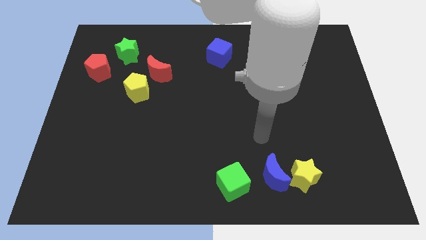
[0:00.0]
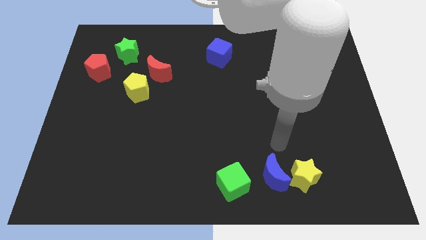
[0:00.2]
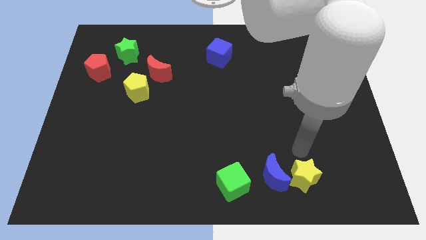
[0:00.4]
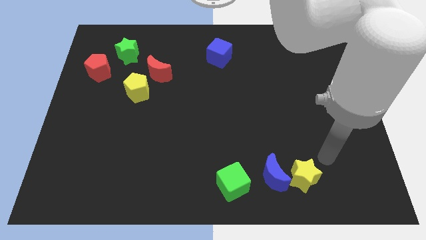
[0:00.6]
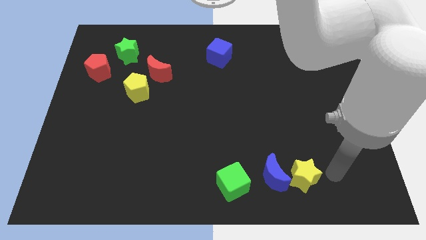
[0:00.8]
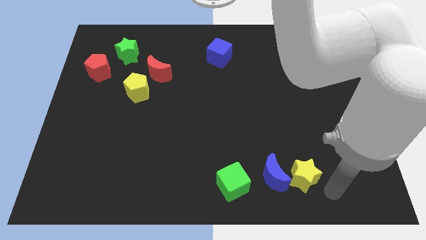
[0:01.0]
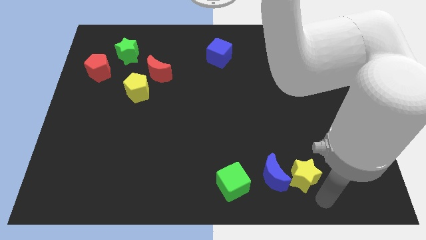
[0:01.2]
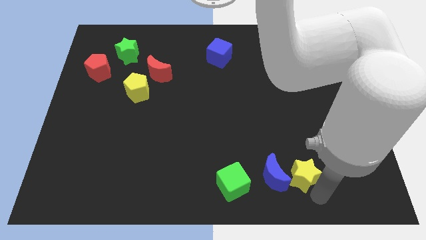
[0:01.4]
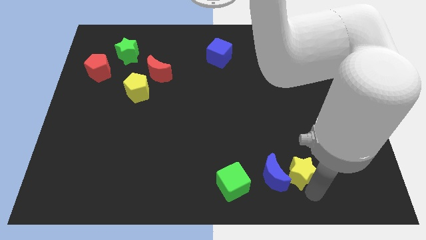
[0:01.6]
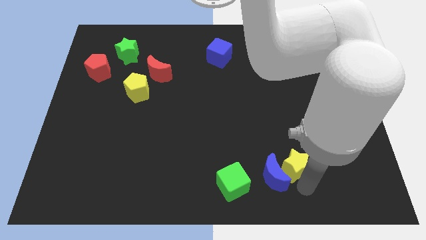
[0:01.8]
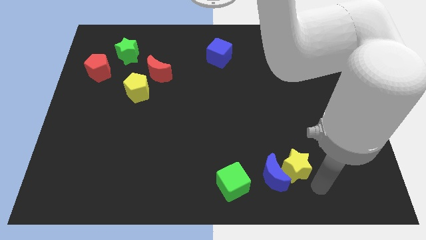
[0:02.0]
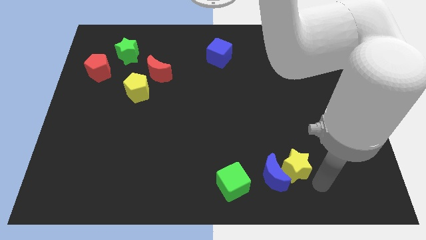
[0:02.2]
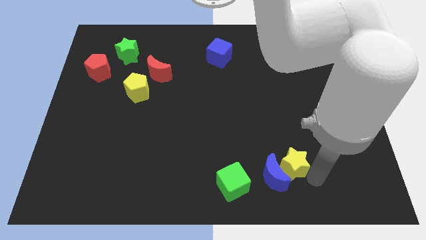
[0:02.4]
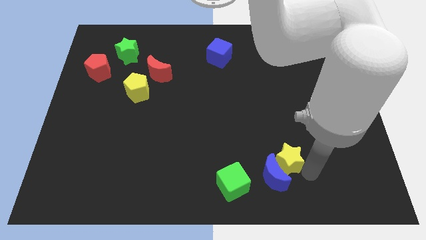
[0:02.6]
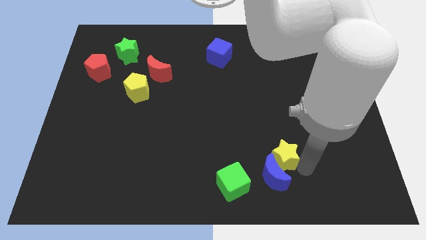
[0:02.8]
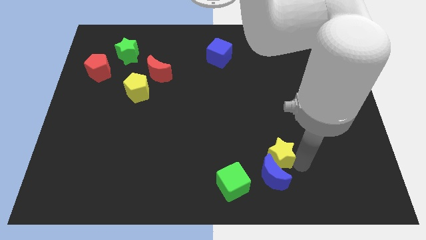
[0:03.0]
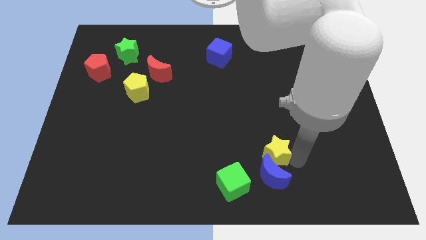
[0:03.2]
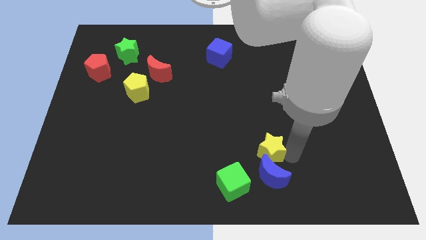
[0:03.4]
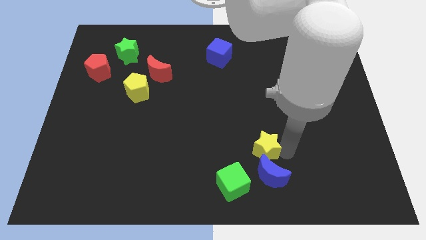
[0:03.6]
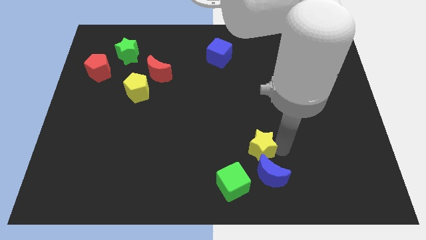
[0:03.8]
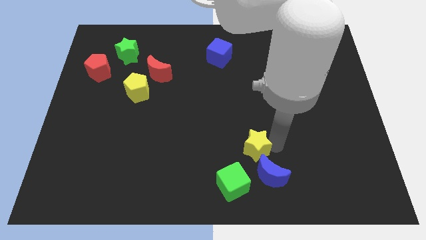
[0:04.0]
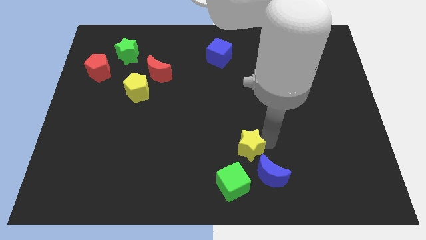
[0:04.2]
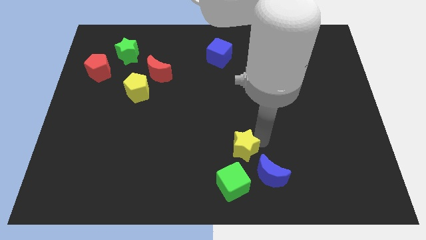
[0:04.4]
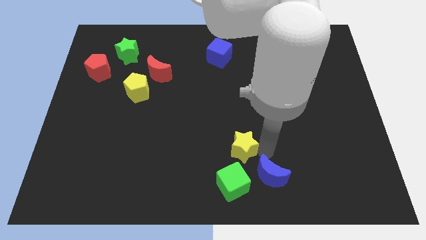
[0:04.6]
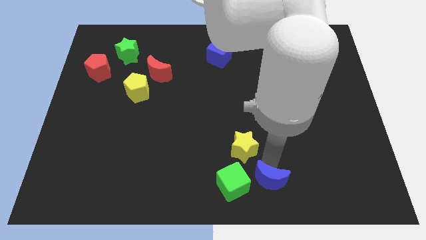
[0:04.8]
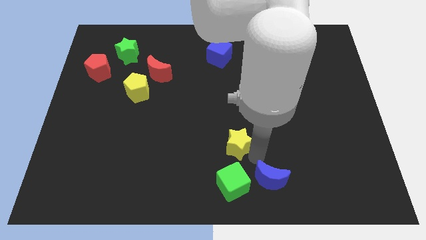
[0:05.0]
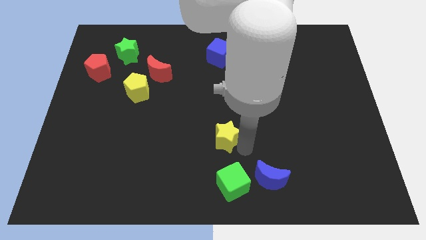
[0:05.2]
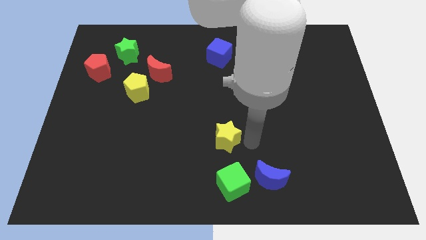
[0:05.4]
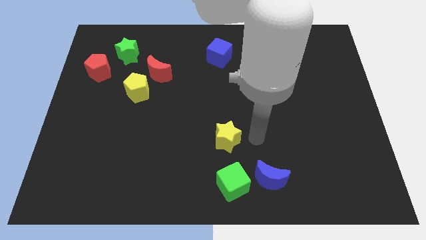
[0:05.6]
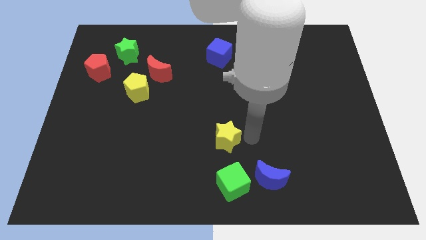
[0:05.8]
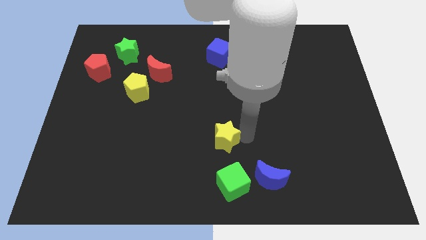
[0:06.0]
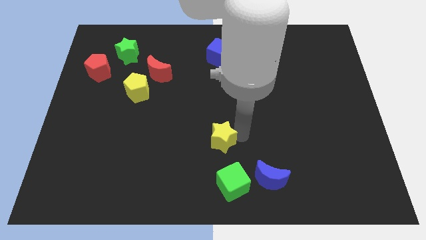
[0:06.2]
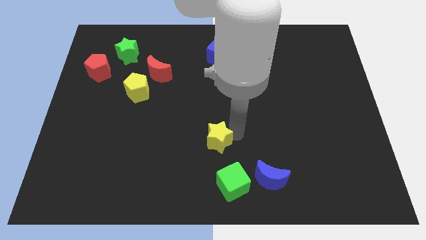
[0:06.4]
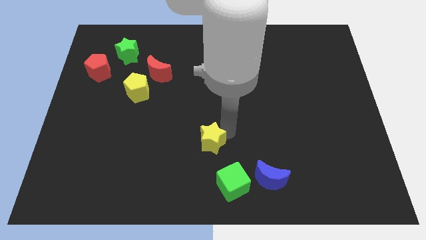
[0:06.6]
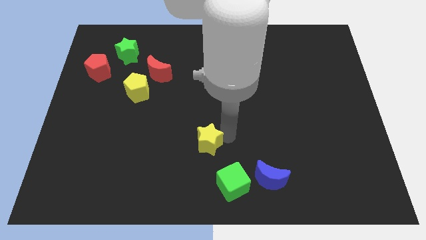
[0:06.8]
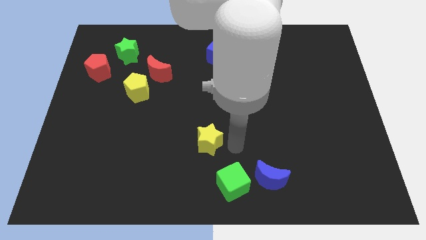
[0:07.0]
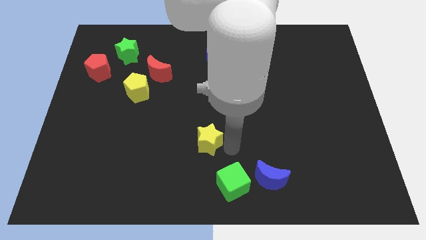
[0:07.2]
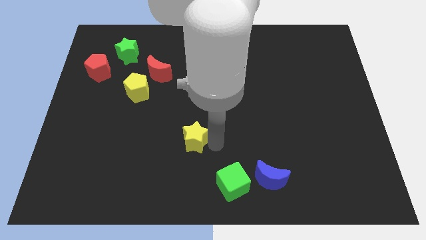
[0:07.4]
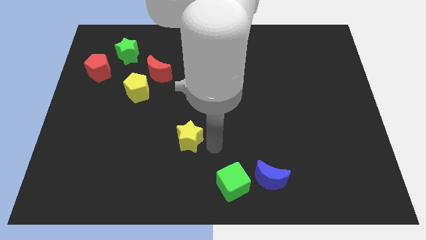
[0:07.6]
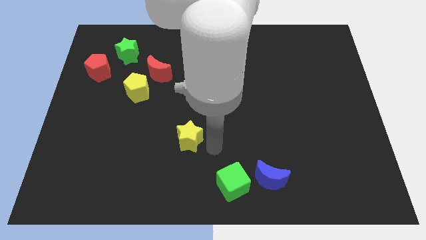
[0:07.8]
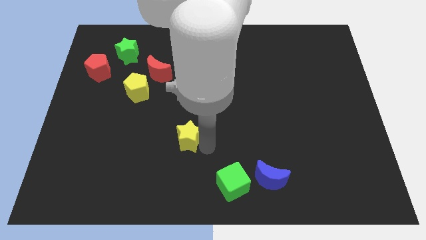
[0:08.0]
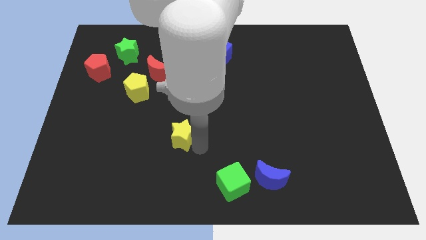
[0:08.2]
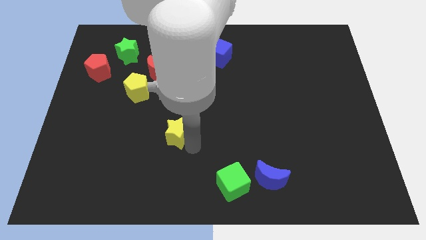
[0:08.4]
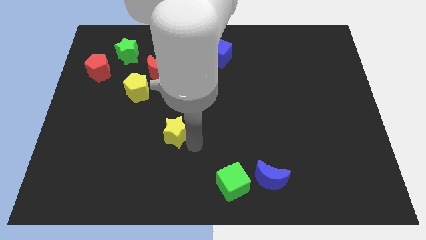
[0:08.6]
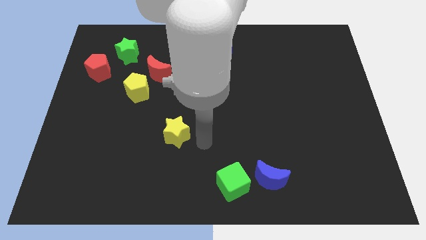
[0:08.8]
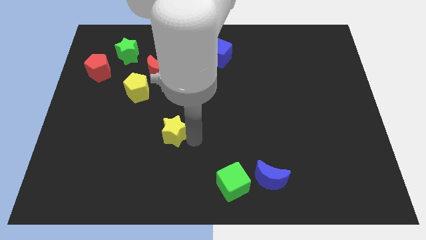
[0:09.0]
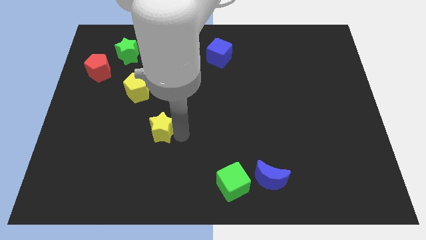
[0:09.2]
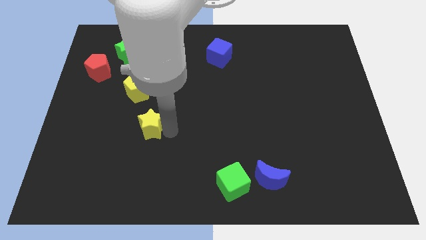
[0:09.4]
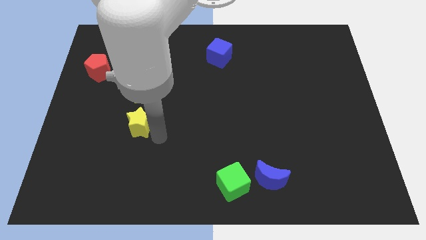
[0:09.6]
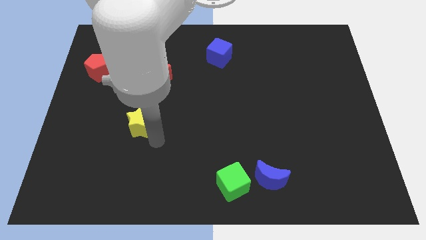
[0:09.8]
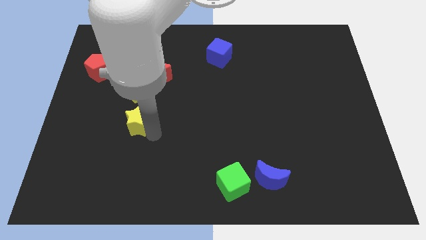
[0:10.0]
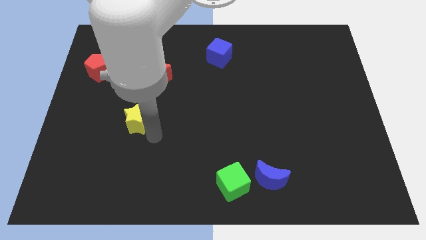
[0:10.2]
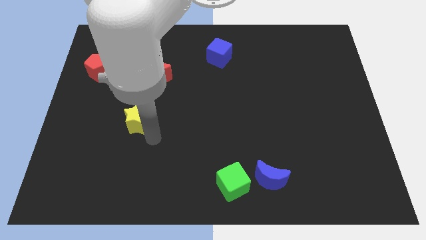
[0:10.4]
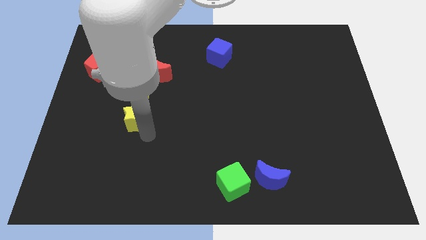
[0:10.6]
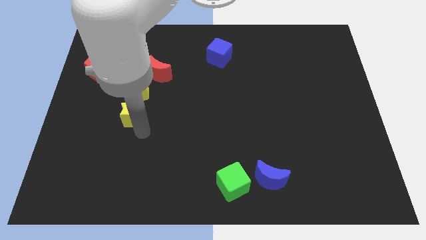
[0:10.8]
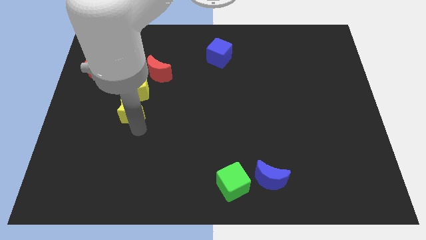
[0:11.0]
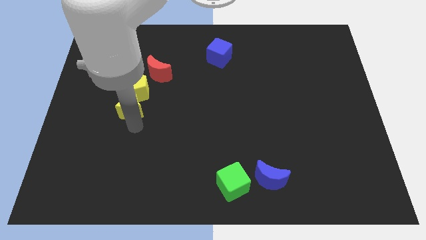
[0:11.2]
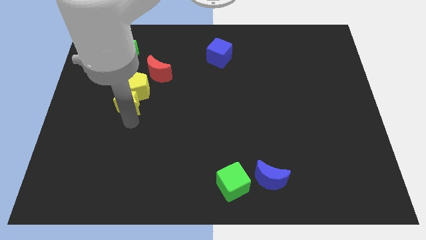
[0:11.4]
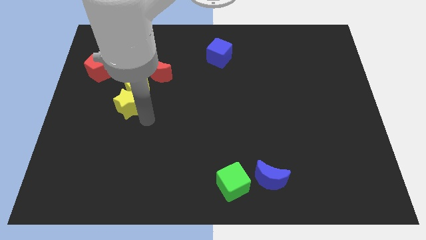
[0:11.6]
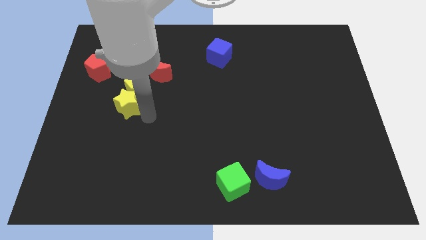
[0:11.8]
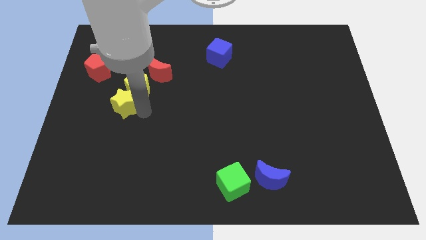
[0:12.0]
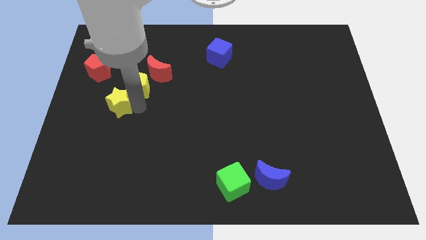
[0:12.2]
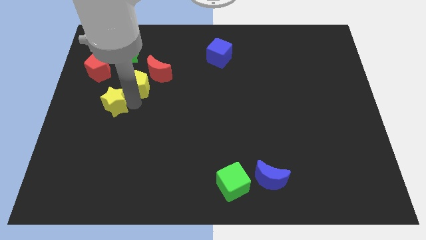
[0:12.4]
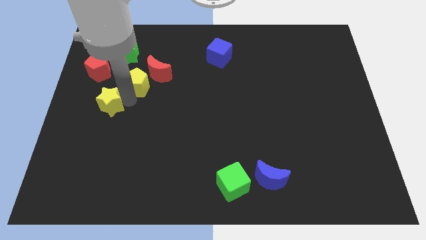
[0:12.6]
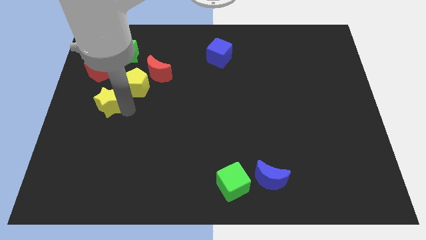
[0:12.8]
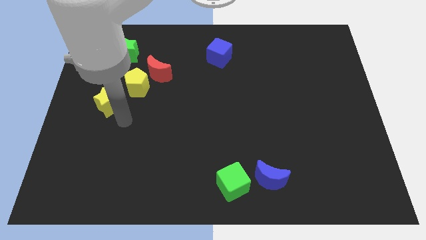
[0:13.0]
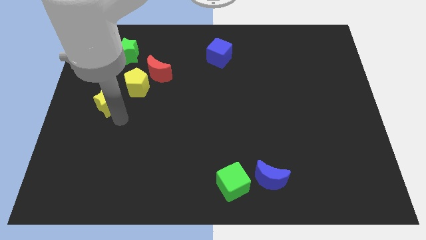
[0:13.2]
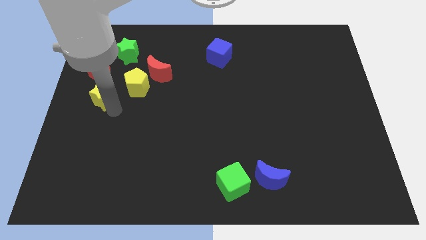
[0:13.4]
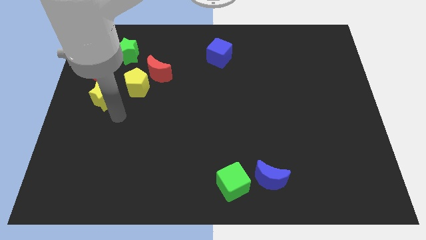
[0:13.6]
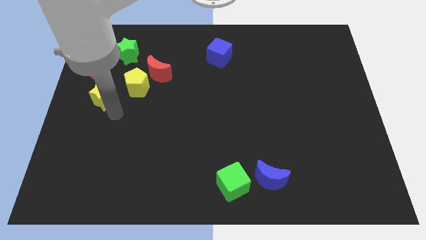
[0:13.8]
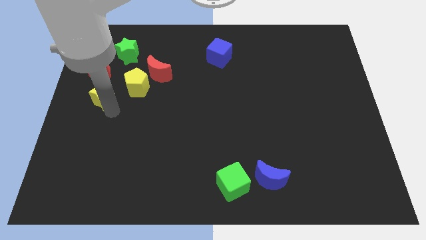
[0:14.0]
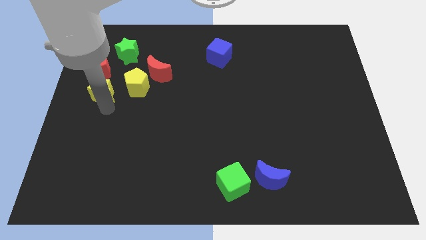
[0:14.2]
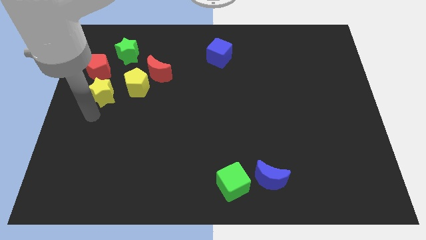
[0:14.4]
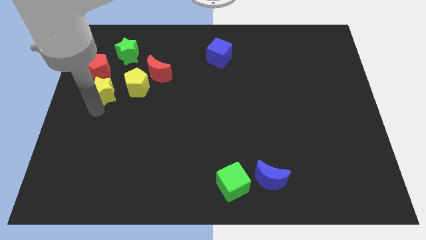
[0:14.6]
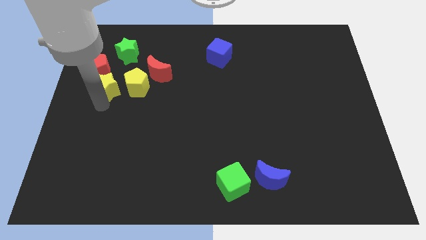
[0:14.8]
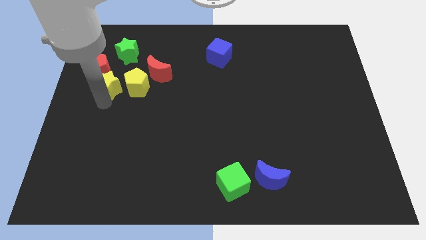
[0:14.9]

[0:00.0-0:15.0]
move the yellow star diagonally up and to the left of the yellow pentagon
